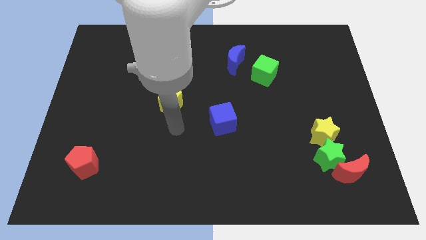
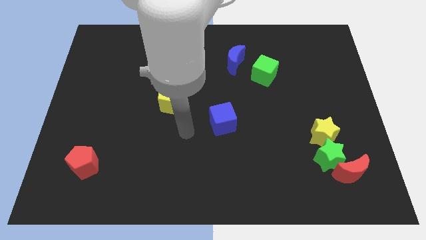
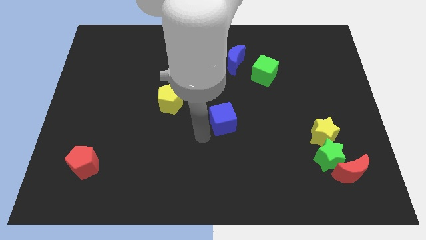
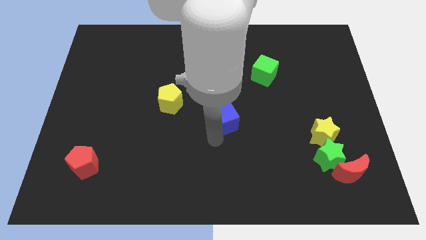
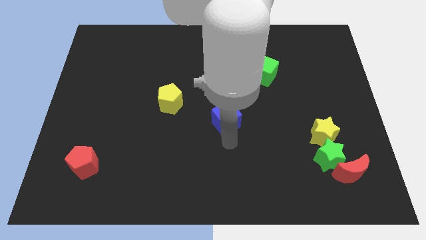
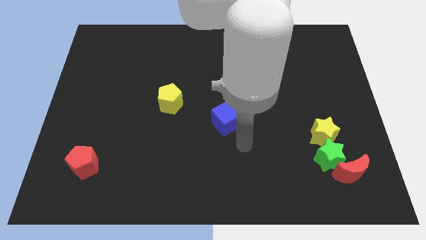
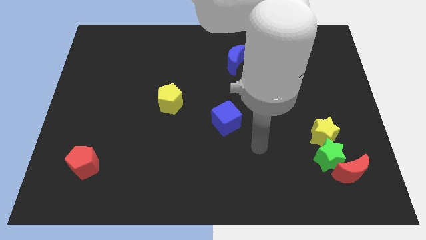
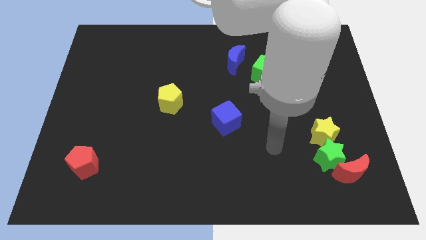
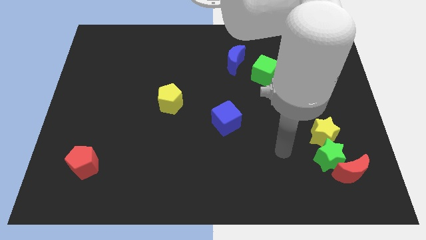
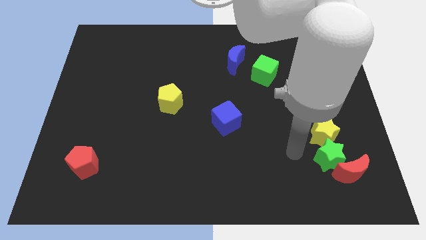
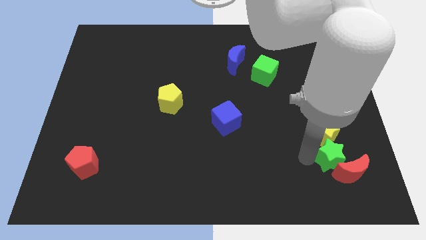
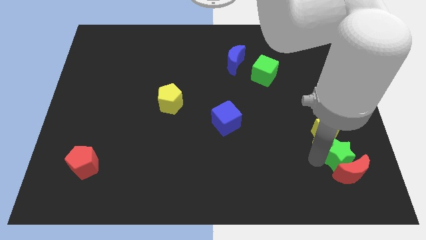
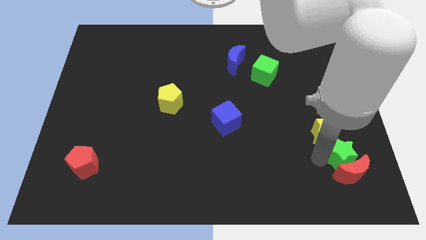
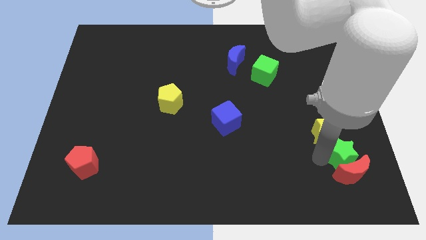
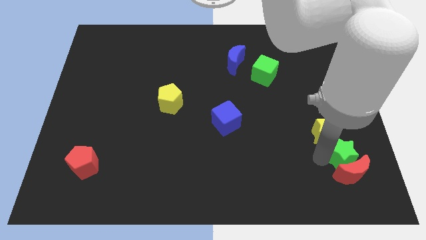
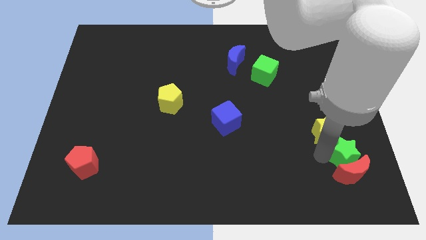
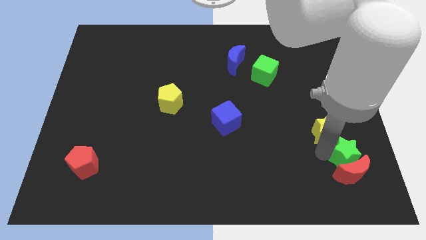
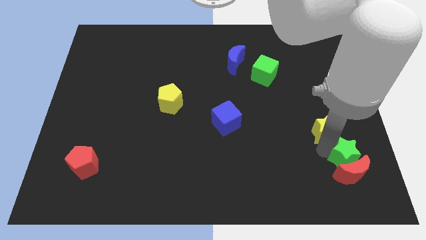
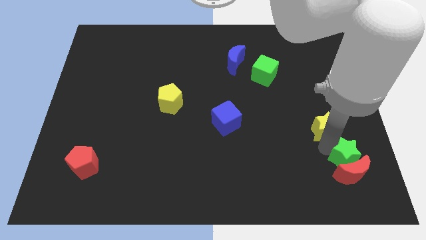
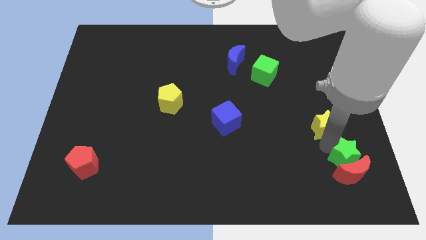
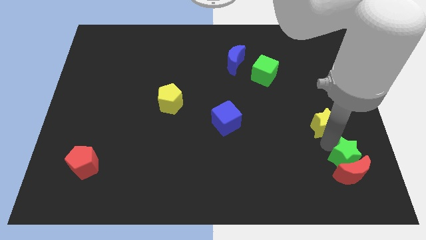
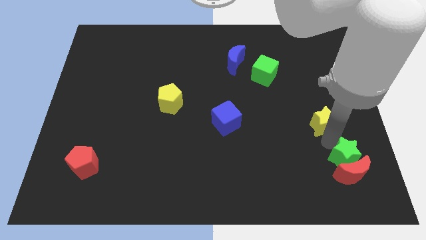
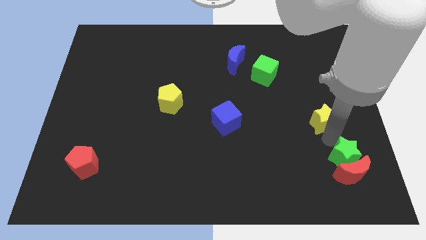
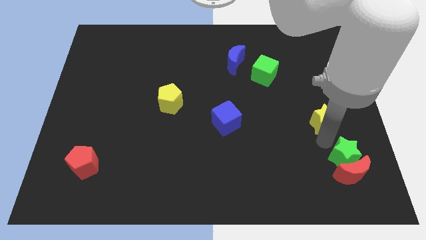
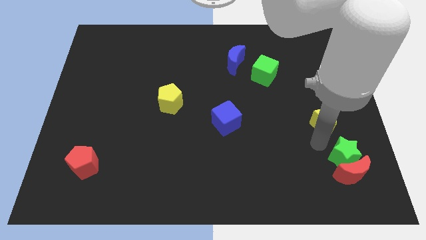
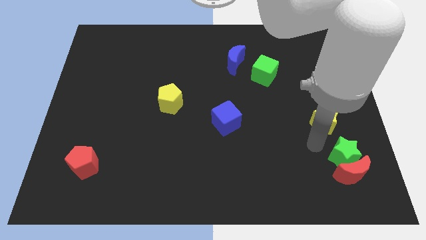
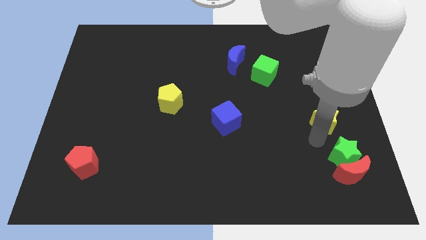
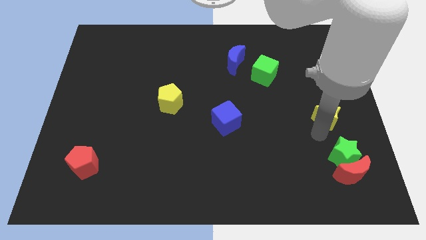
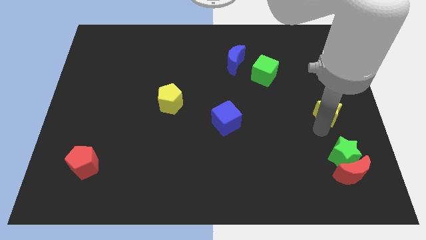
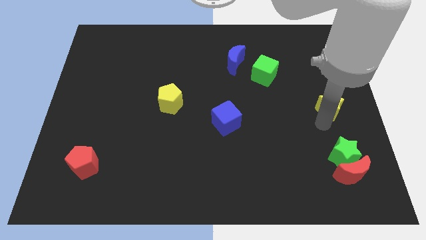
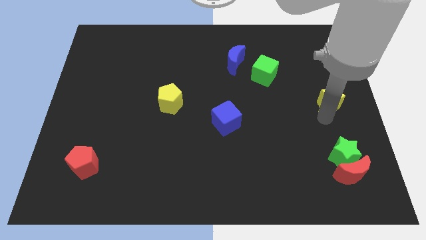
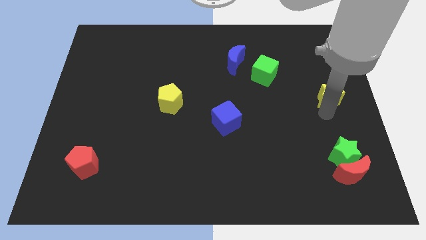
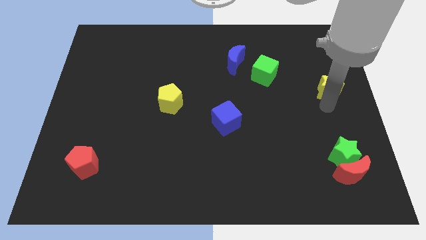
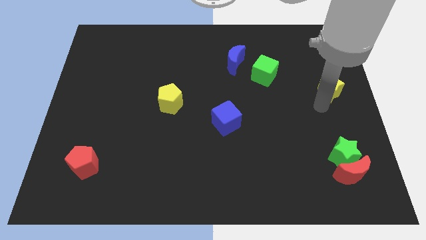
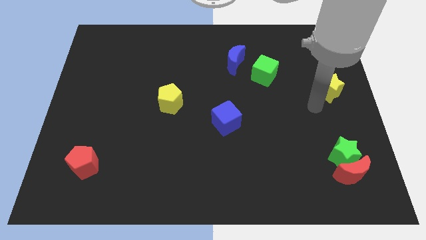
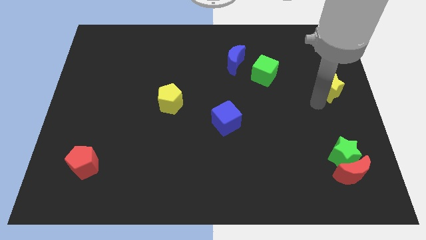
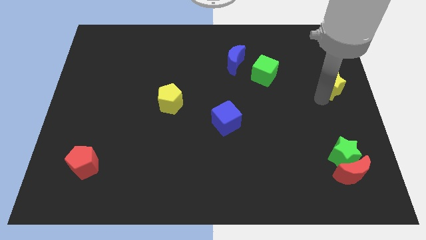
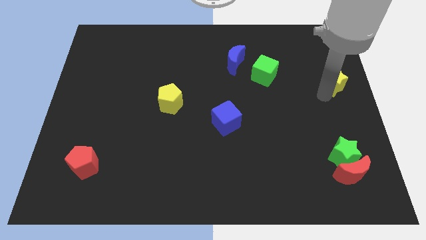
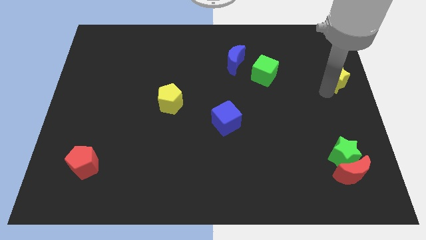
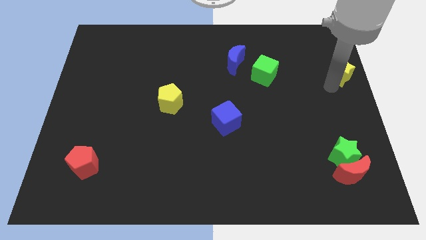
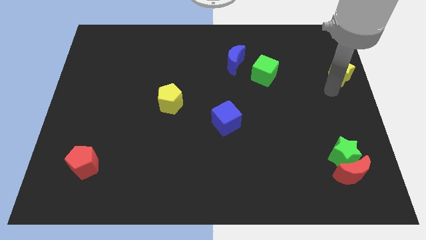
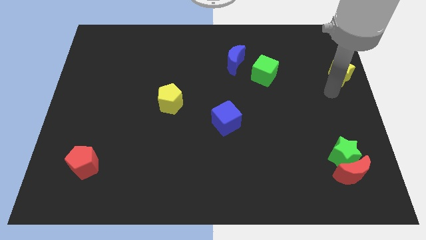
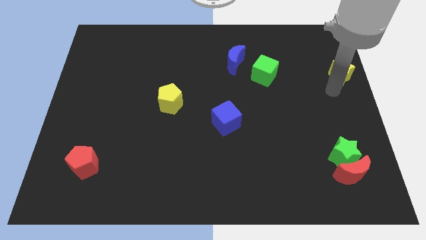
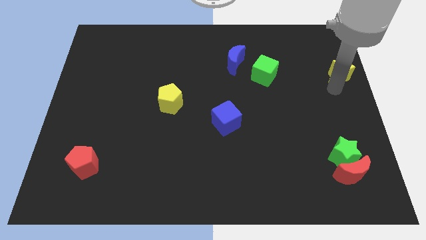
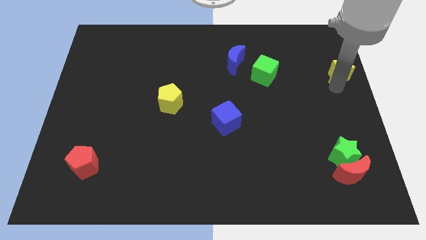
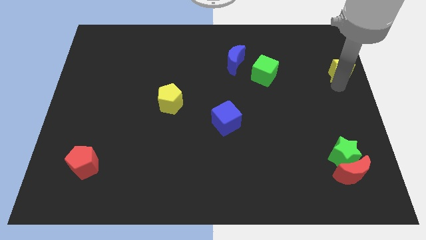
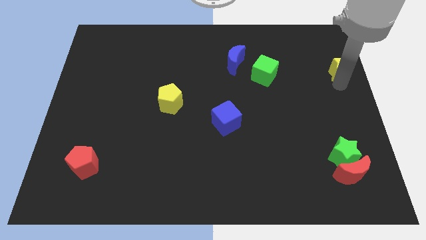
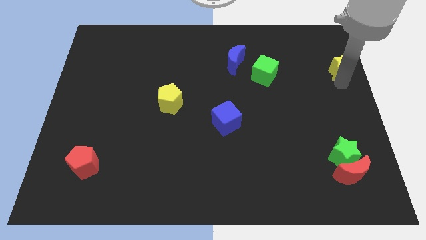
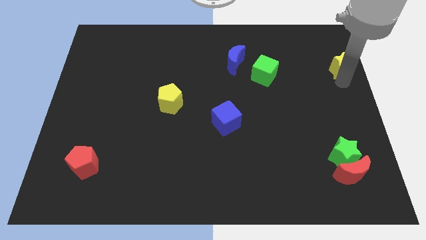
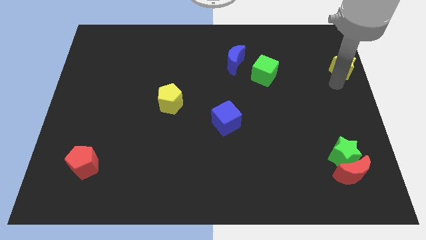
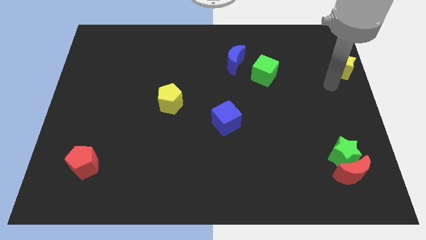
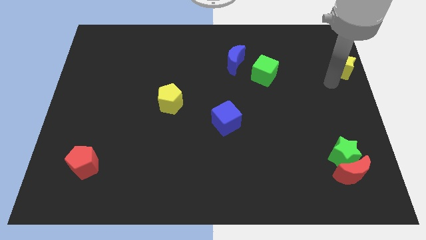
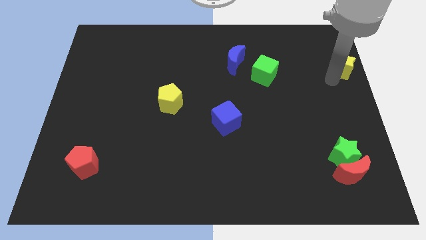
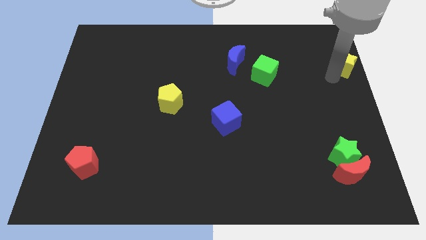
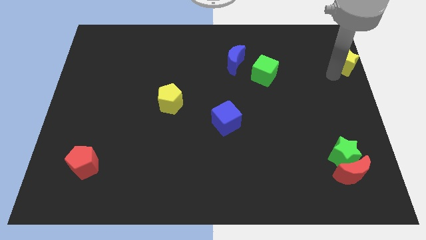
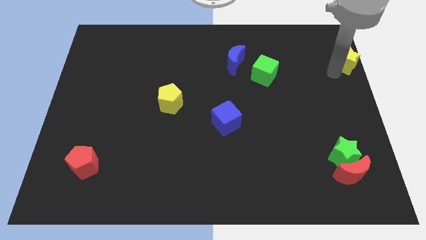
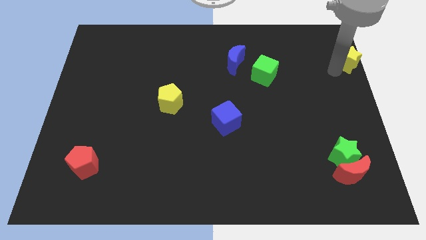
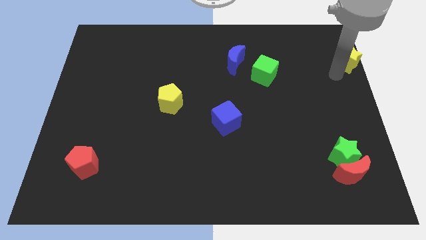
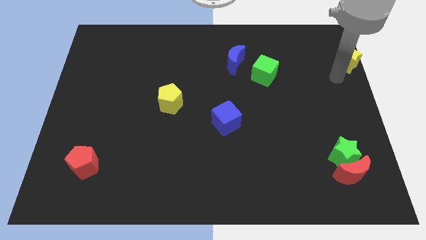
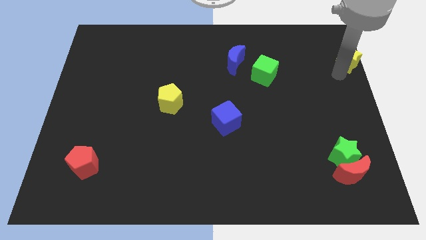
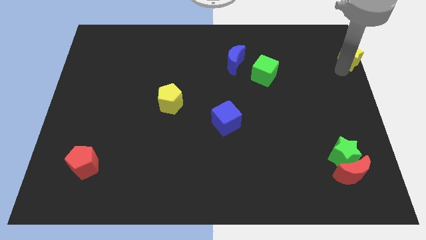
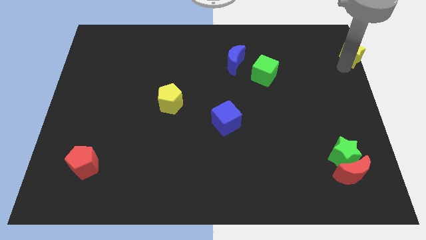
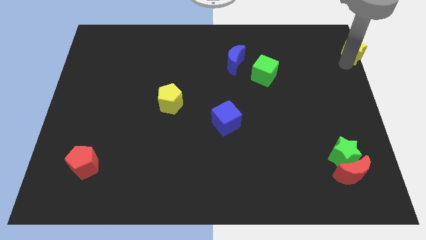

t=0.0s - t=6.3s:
slide the yellow star to the upper right corner
